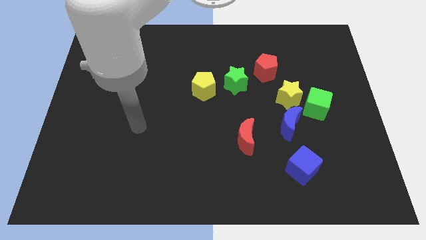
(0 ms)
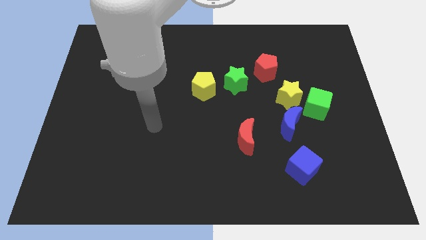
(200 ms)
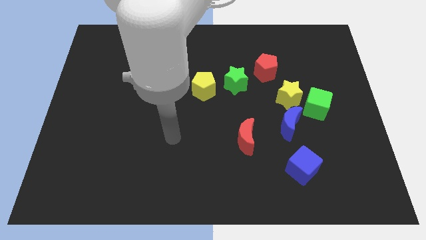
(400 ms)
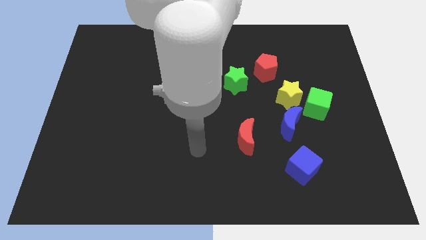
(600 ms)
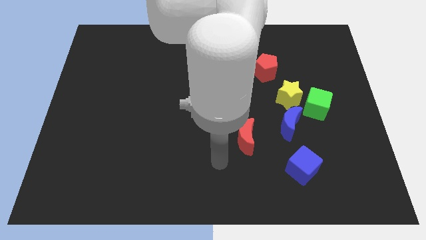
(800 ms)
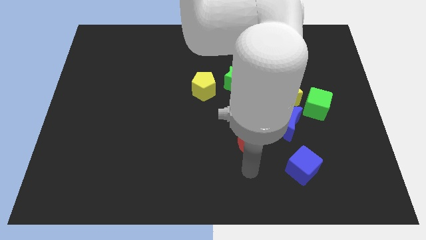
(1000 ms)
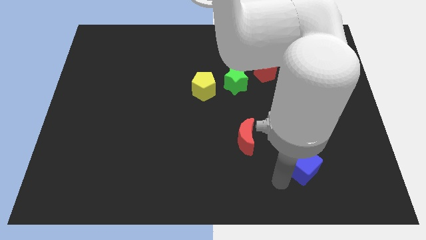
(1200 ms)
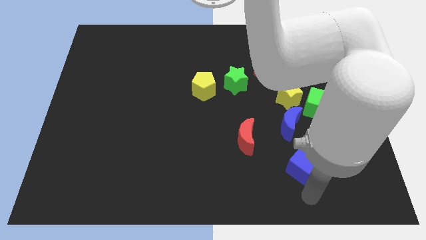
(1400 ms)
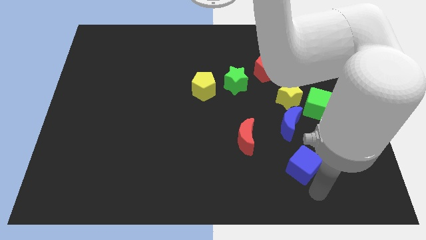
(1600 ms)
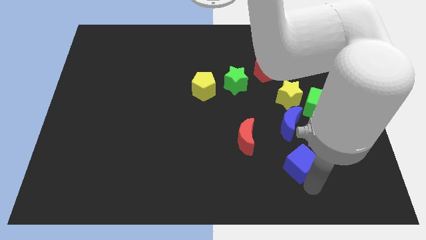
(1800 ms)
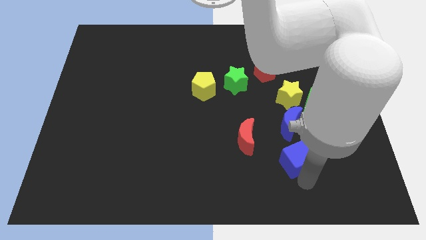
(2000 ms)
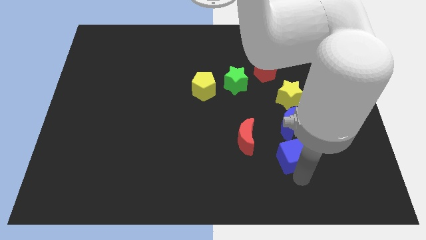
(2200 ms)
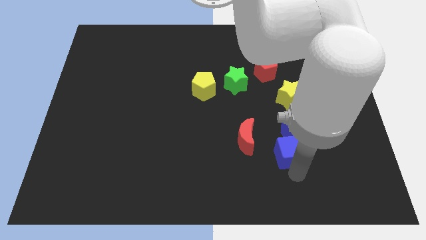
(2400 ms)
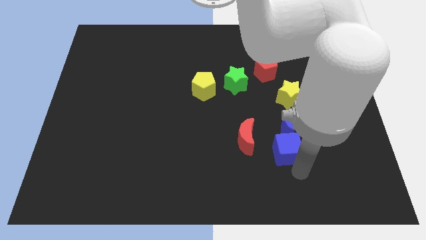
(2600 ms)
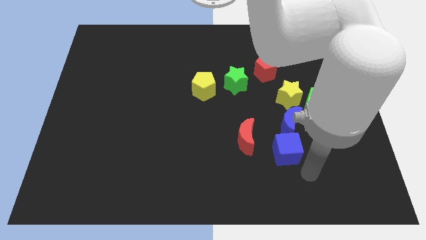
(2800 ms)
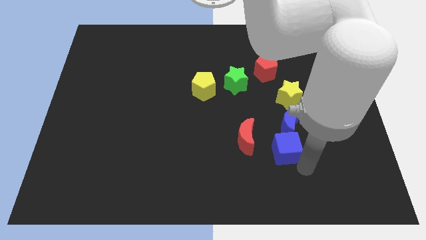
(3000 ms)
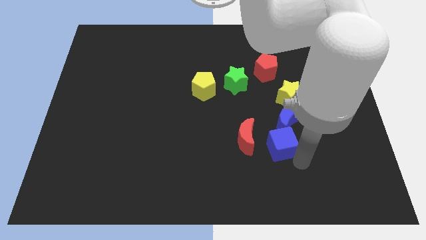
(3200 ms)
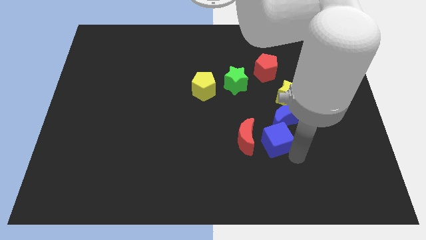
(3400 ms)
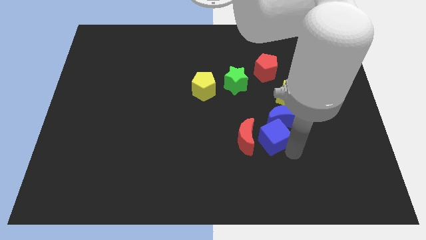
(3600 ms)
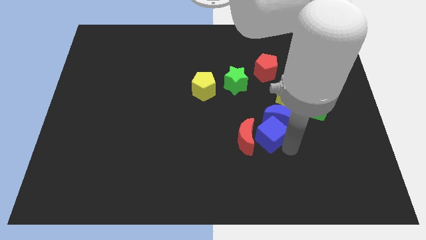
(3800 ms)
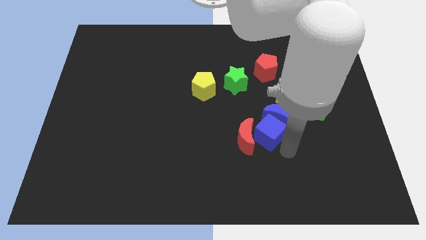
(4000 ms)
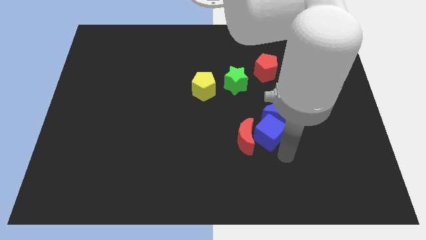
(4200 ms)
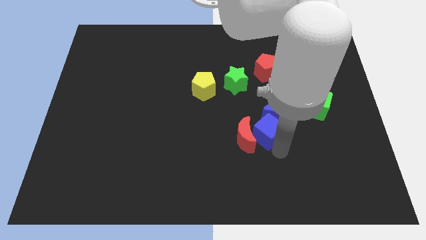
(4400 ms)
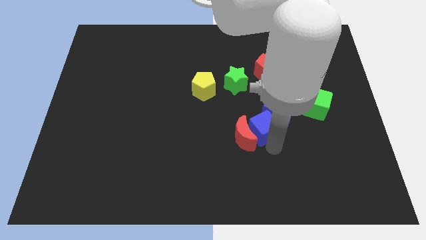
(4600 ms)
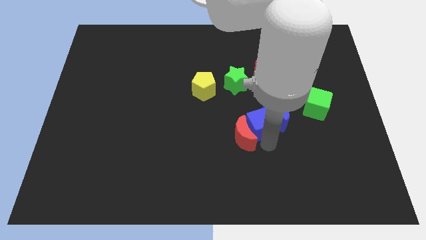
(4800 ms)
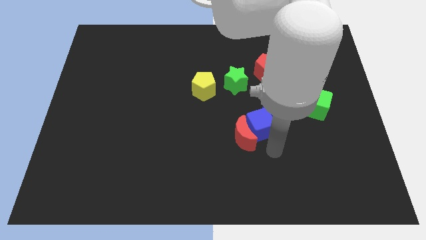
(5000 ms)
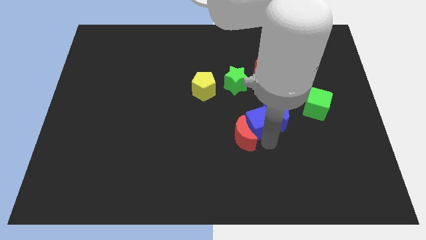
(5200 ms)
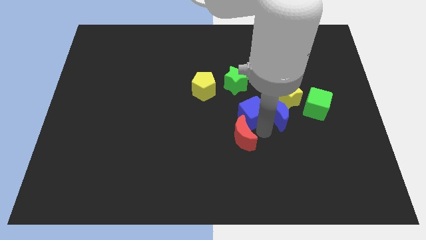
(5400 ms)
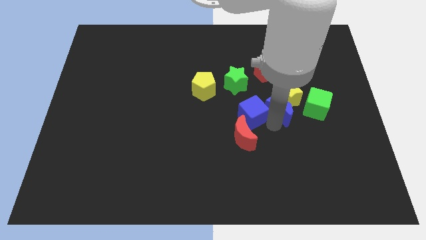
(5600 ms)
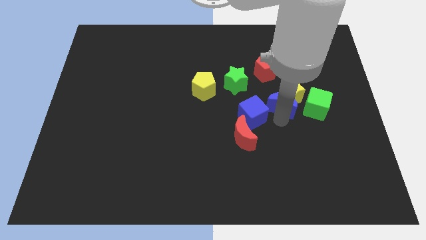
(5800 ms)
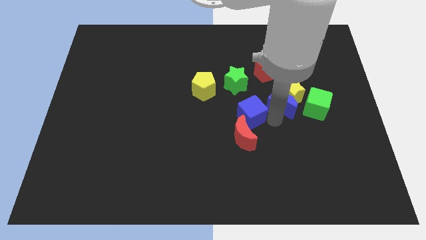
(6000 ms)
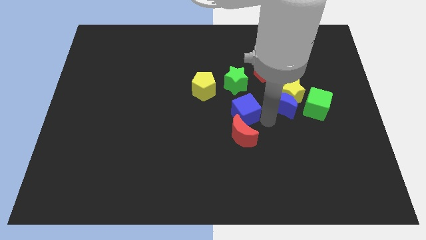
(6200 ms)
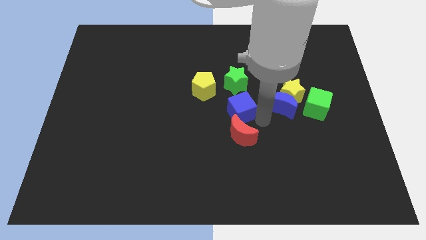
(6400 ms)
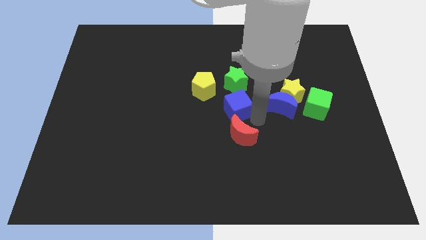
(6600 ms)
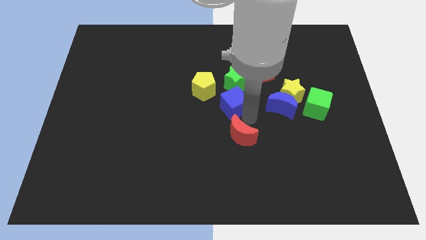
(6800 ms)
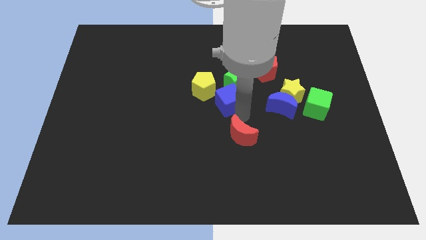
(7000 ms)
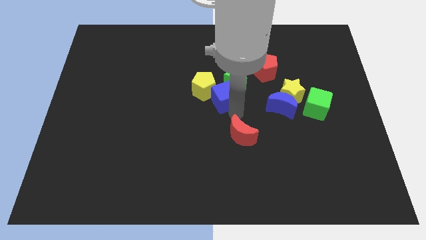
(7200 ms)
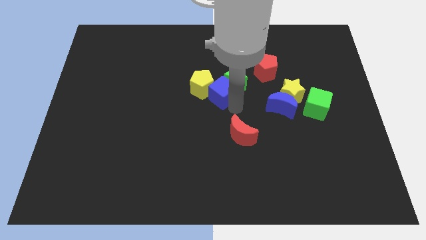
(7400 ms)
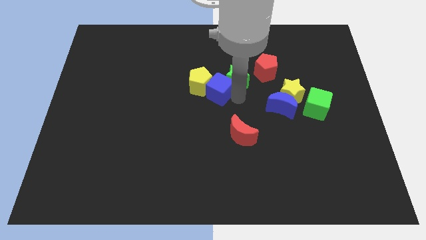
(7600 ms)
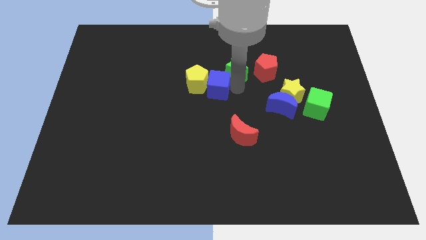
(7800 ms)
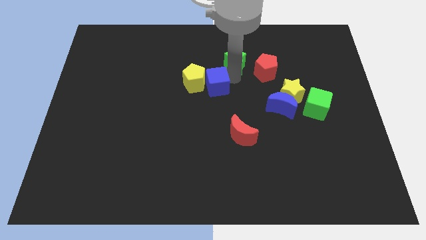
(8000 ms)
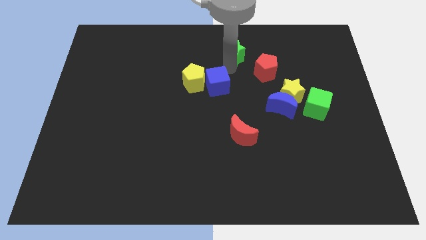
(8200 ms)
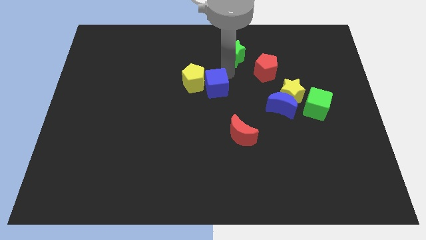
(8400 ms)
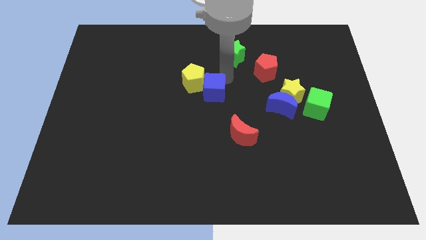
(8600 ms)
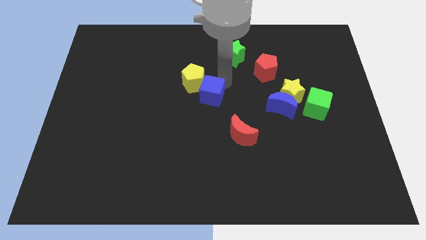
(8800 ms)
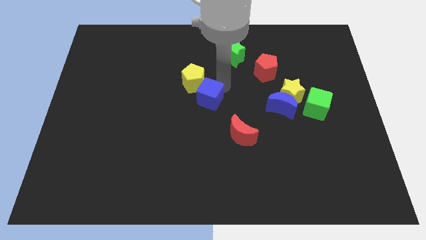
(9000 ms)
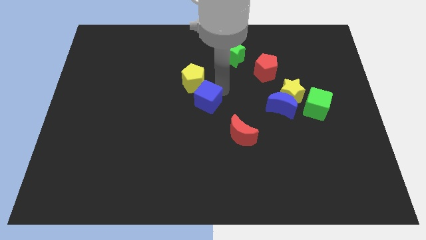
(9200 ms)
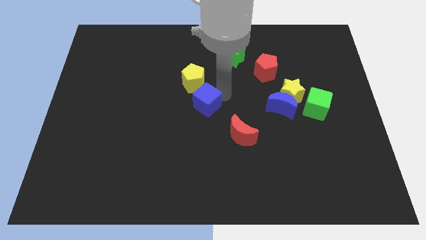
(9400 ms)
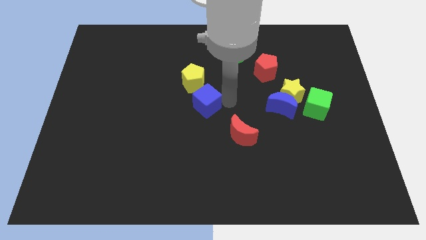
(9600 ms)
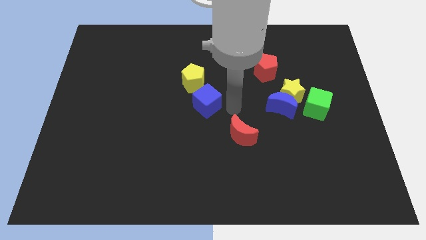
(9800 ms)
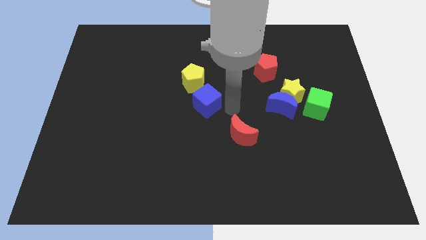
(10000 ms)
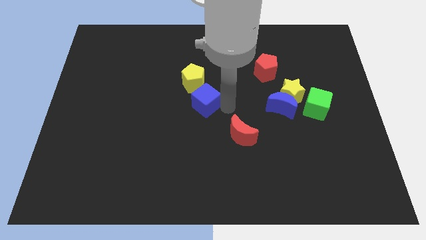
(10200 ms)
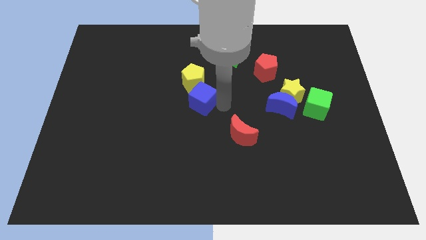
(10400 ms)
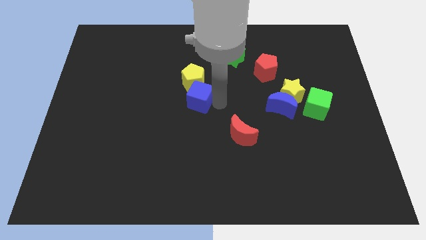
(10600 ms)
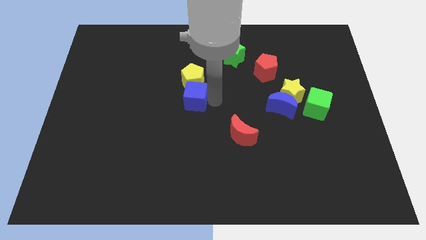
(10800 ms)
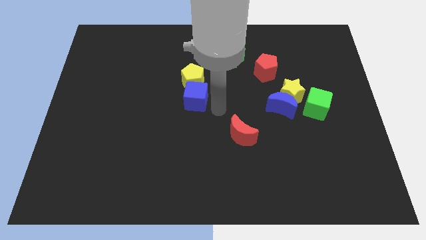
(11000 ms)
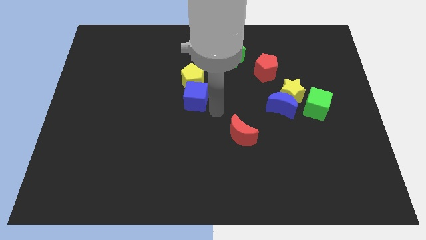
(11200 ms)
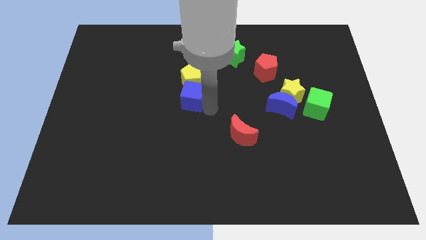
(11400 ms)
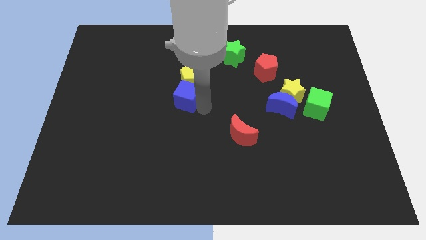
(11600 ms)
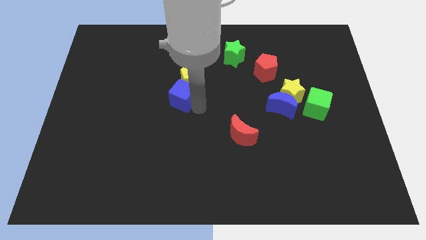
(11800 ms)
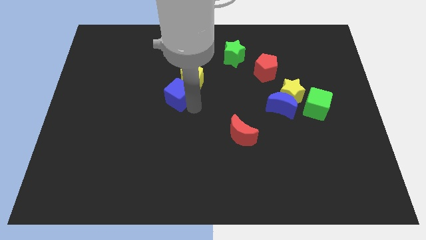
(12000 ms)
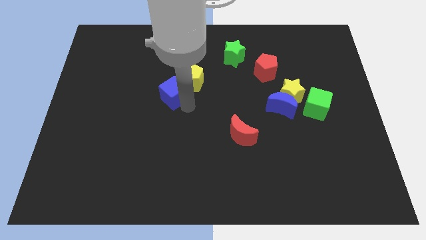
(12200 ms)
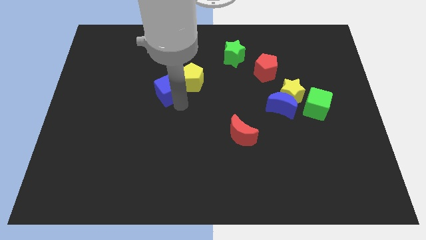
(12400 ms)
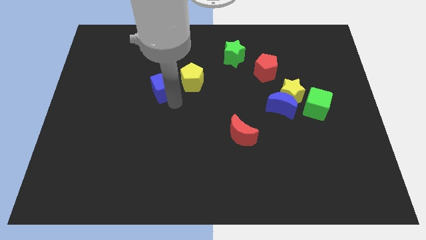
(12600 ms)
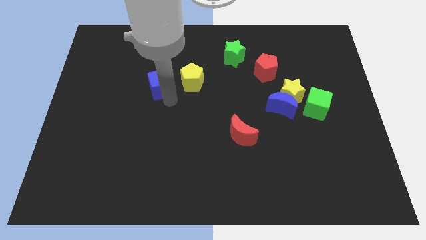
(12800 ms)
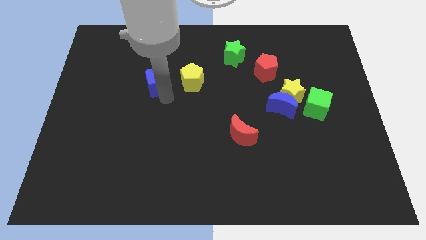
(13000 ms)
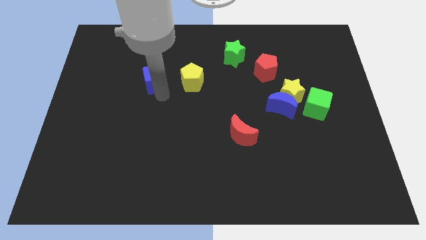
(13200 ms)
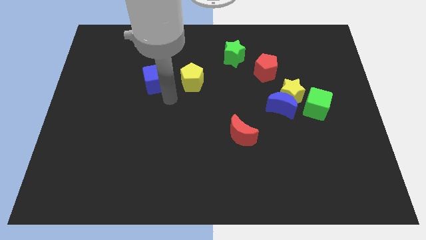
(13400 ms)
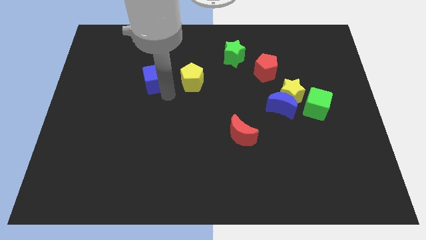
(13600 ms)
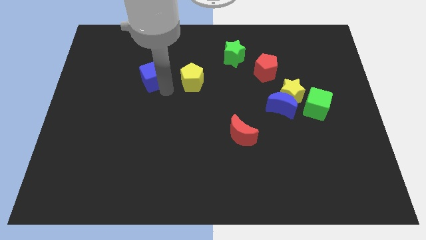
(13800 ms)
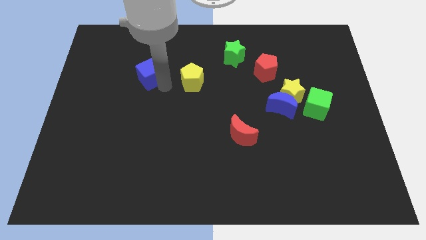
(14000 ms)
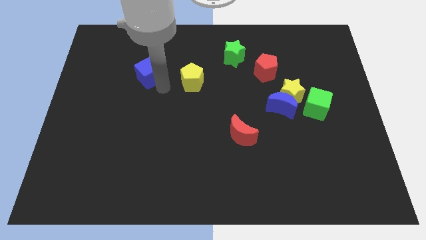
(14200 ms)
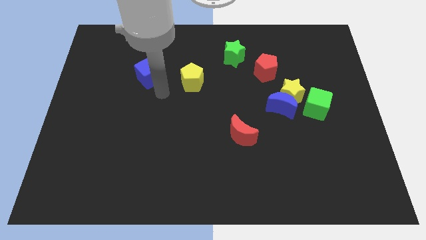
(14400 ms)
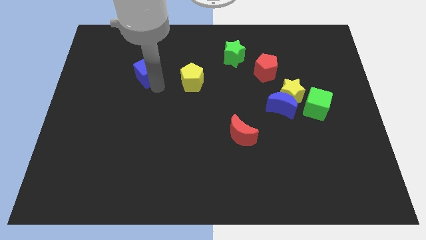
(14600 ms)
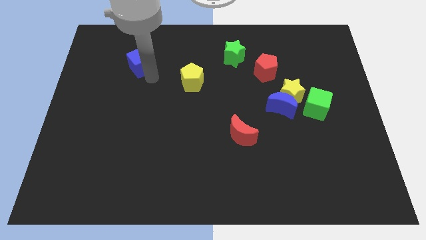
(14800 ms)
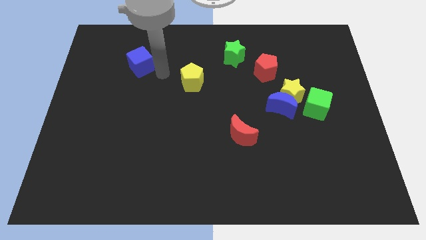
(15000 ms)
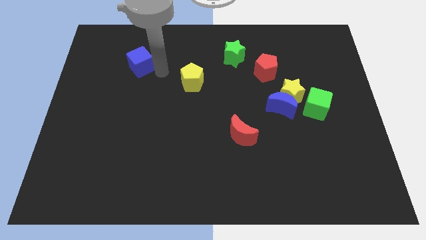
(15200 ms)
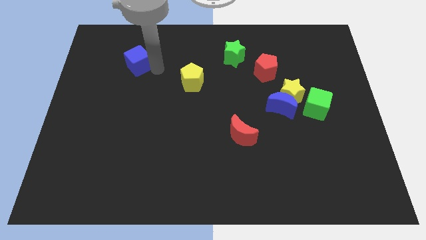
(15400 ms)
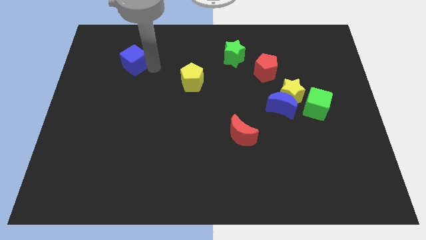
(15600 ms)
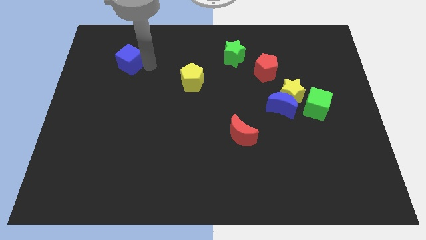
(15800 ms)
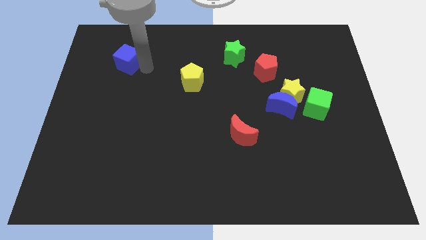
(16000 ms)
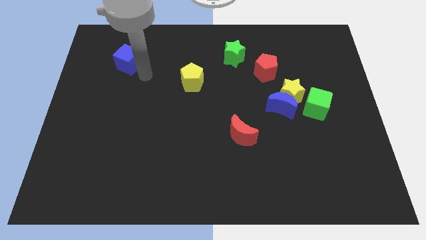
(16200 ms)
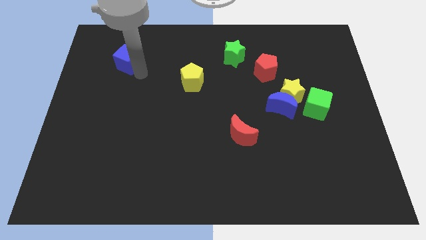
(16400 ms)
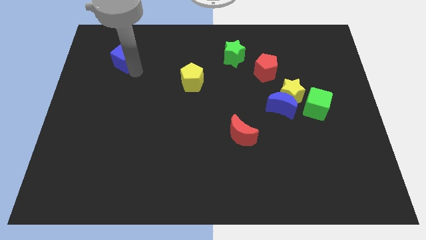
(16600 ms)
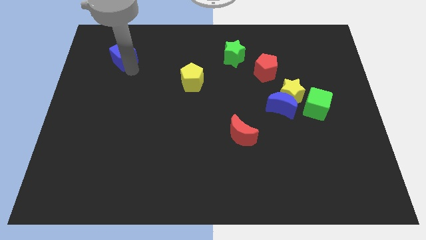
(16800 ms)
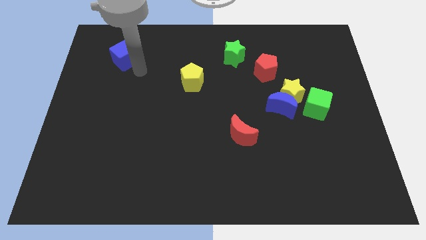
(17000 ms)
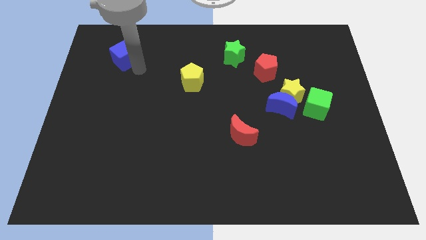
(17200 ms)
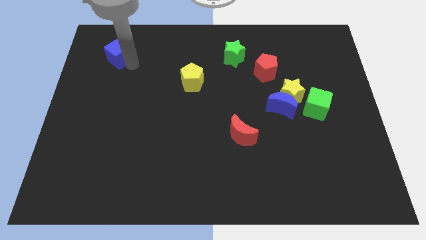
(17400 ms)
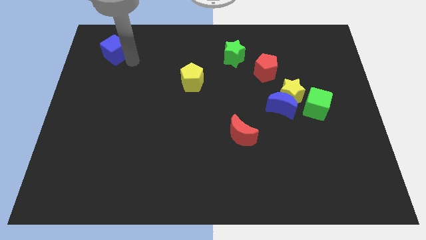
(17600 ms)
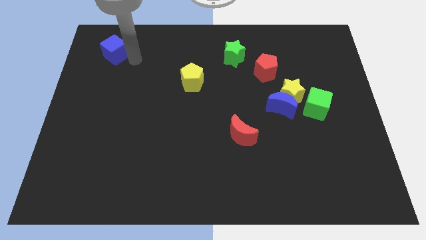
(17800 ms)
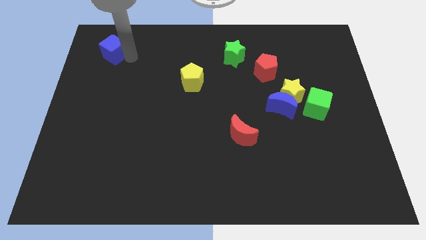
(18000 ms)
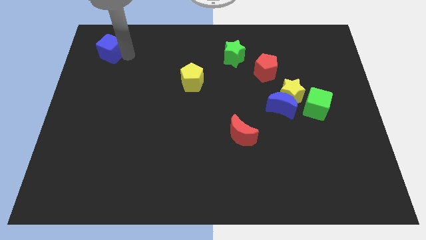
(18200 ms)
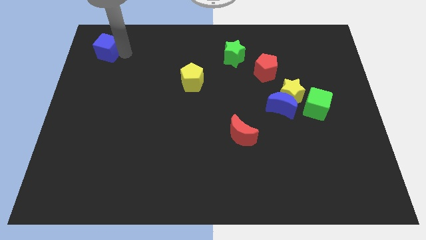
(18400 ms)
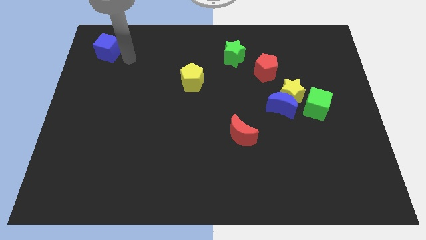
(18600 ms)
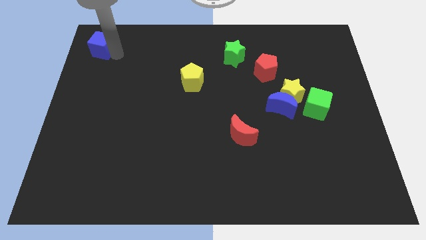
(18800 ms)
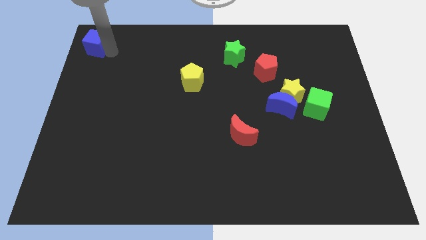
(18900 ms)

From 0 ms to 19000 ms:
move the blue cube to the top left
